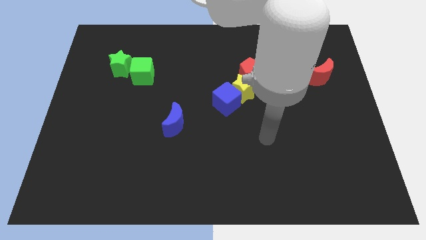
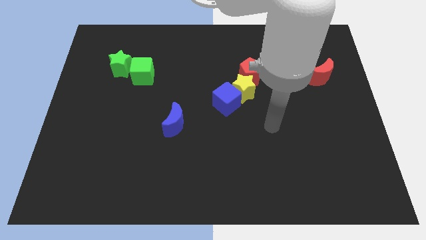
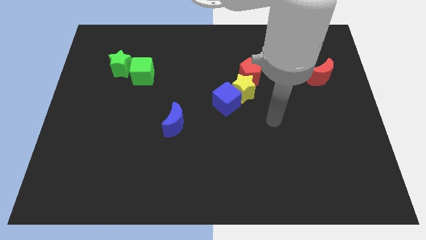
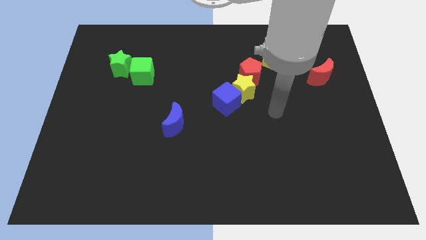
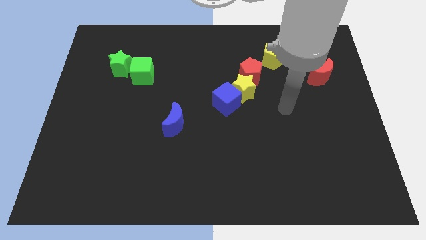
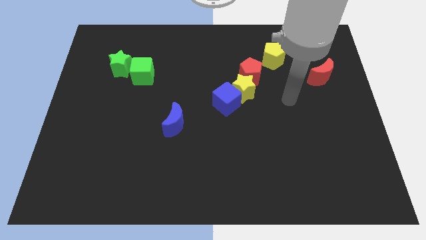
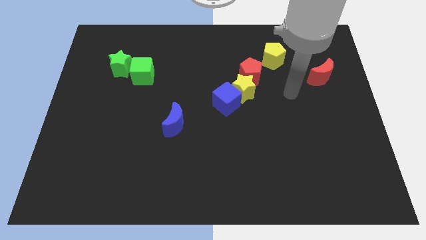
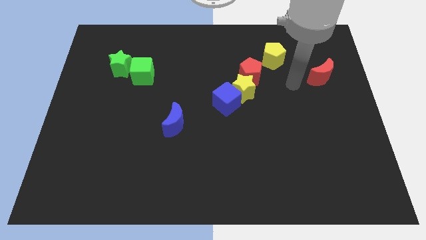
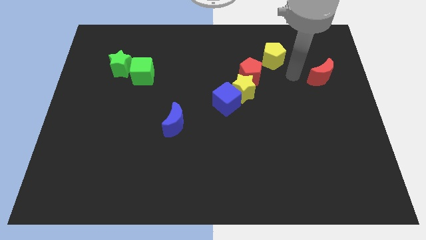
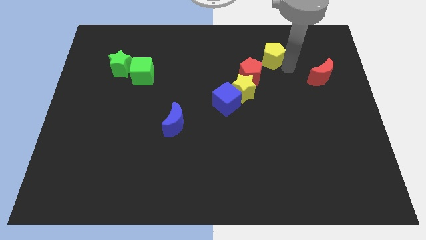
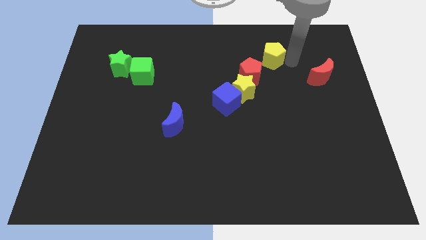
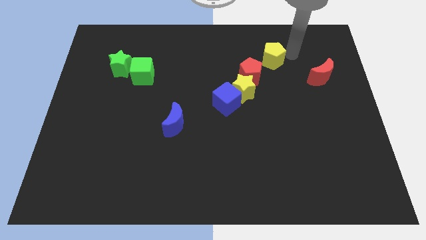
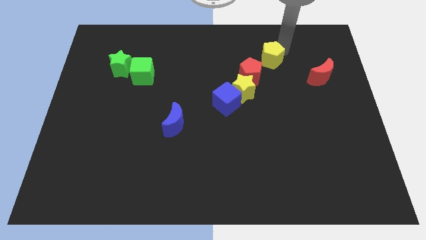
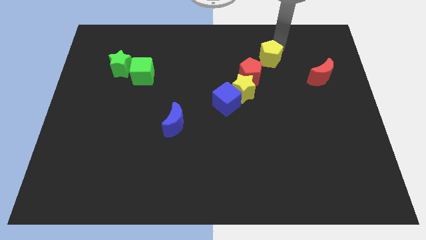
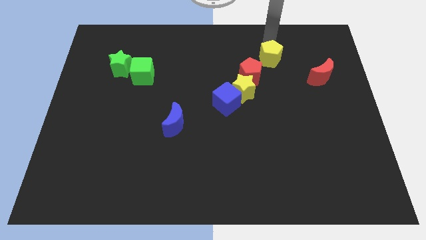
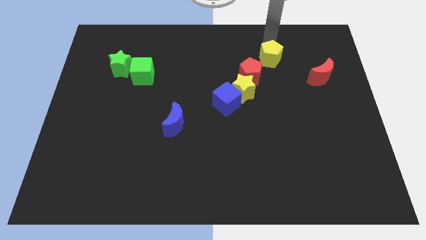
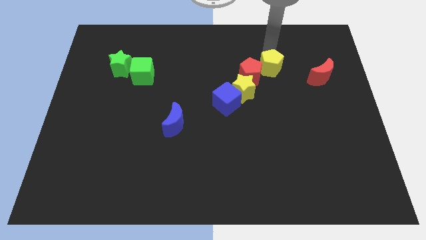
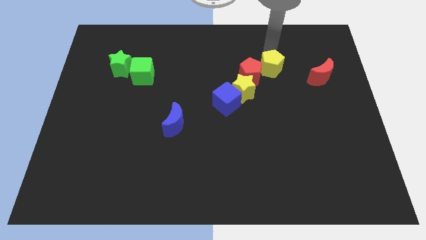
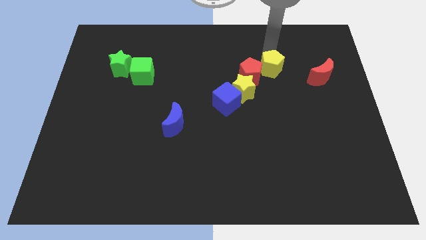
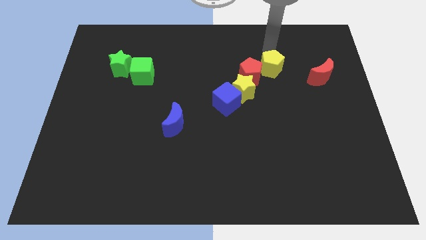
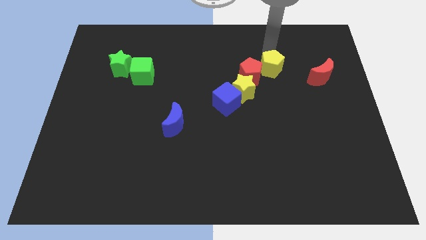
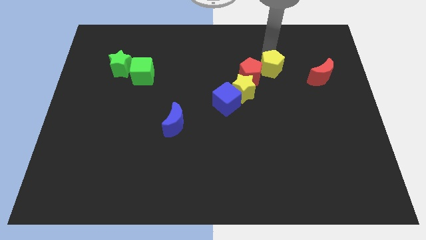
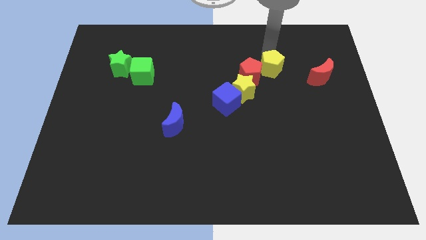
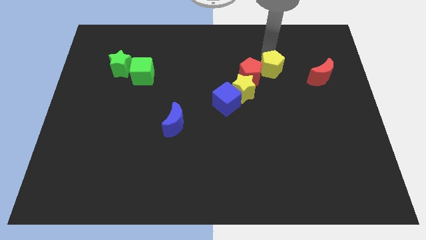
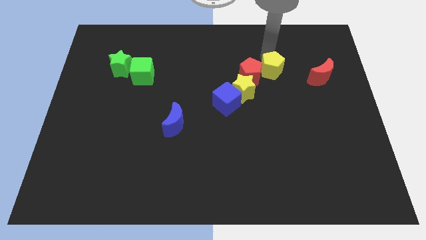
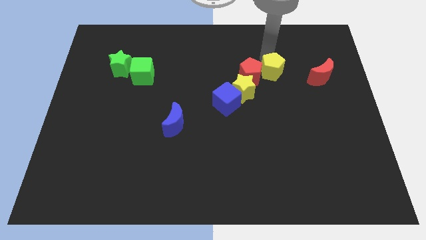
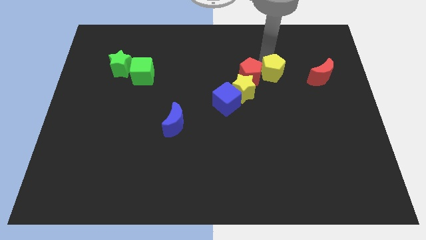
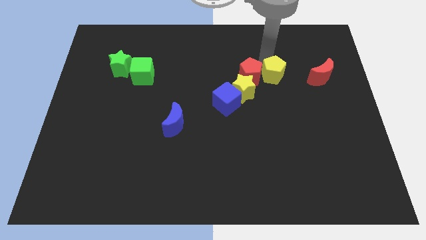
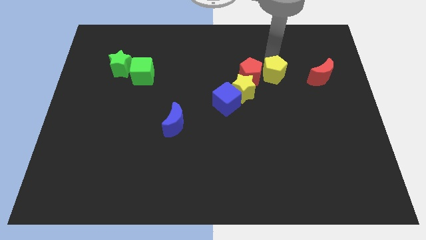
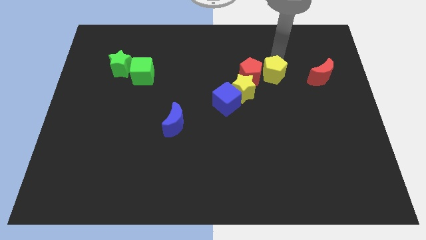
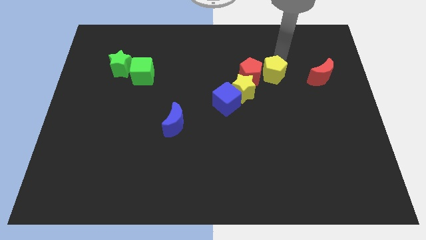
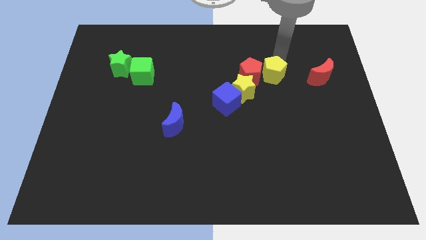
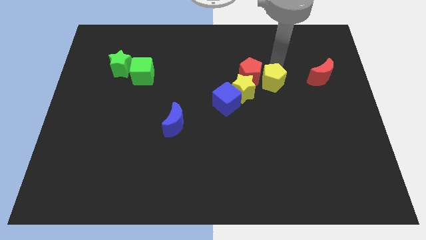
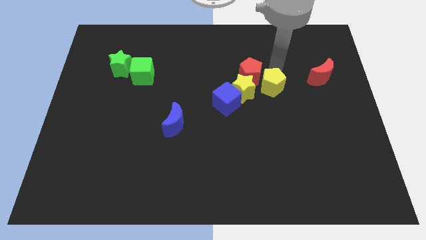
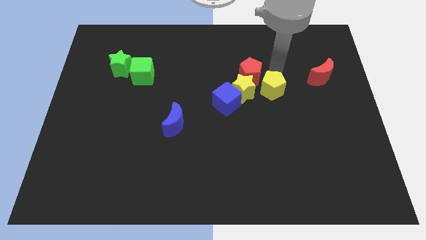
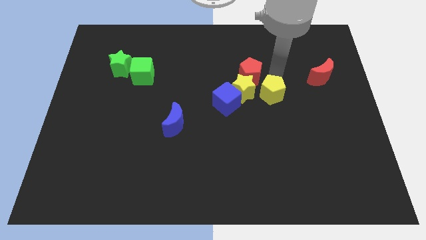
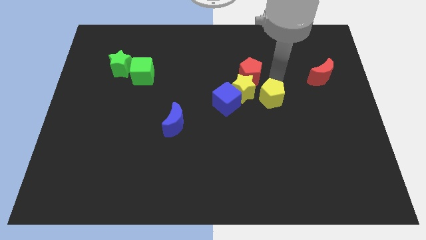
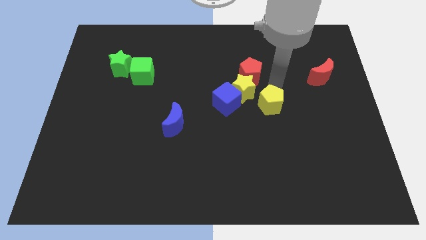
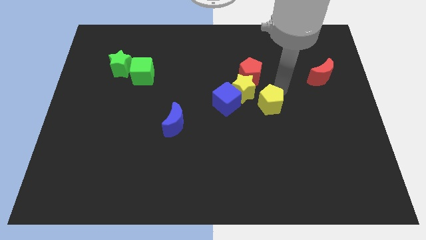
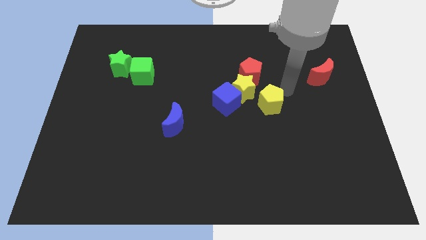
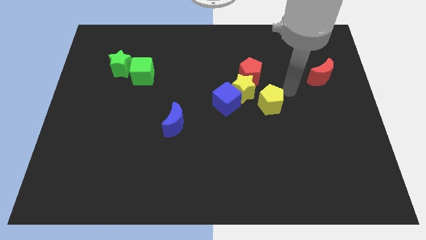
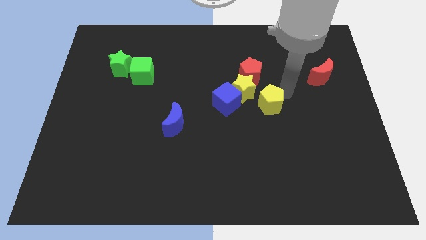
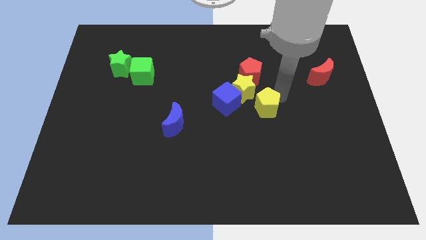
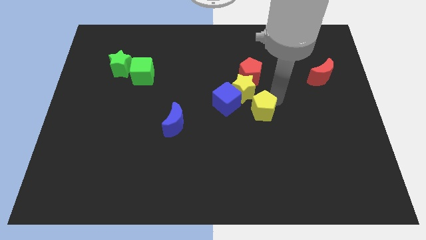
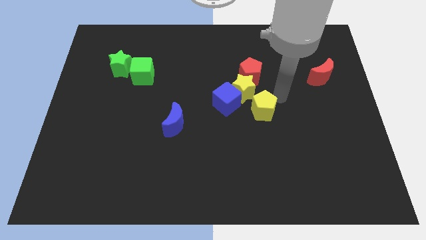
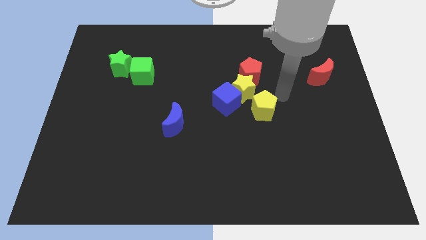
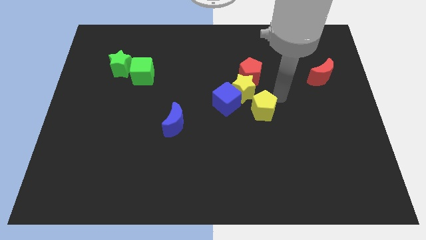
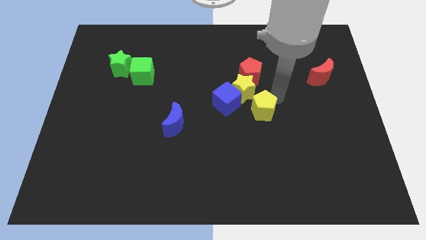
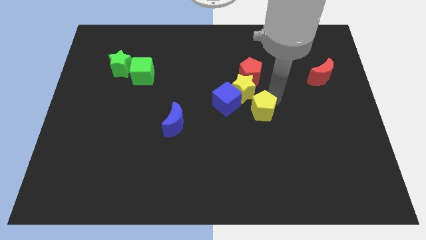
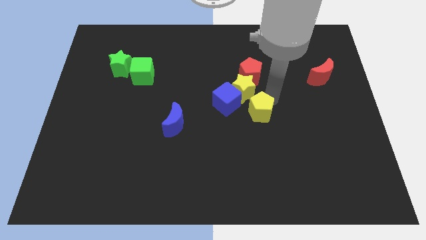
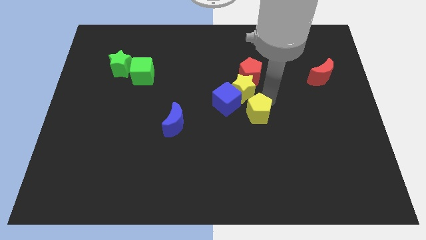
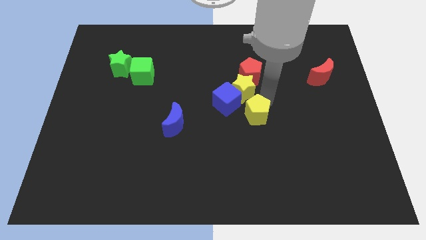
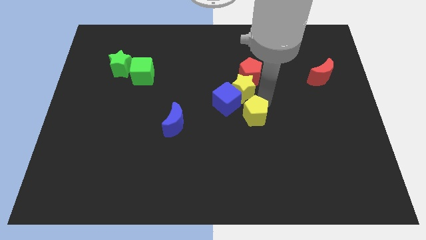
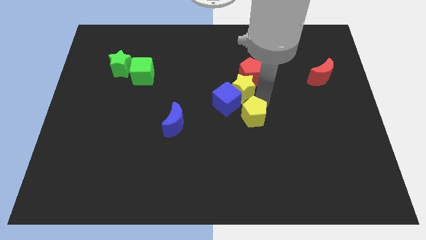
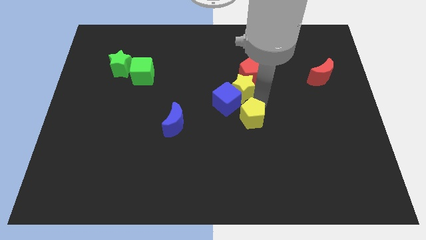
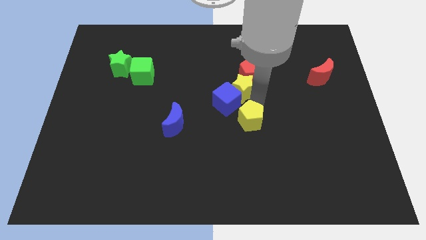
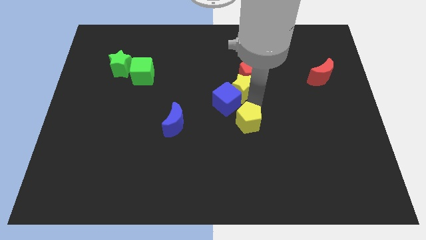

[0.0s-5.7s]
move the yellow pentagon below the blue cube

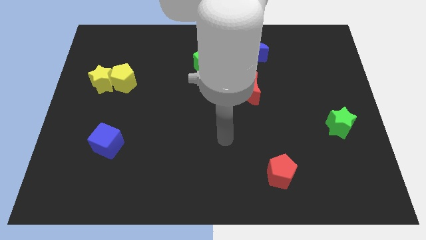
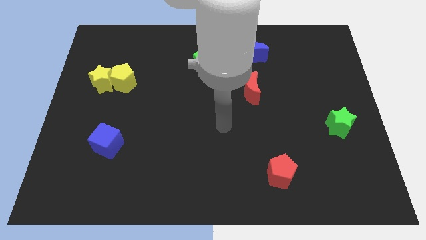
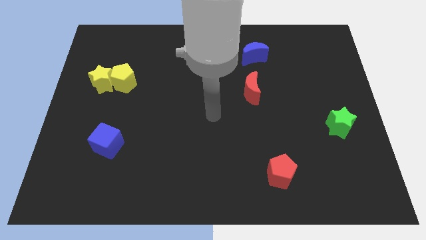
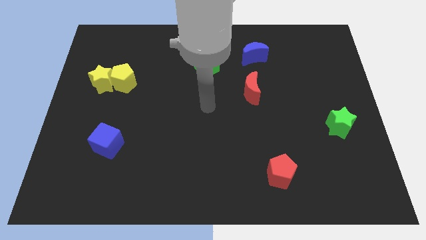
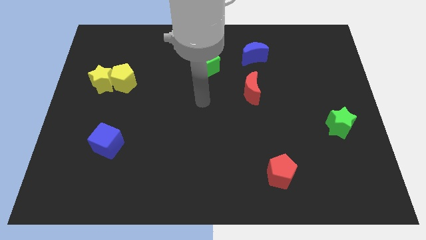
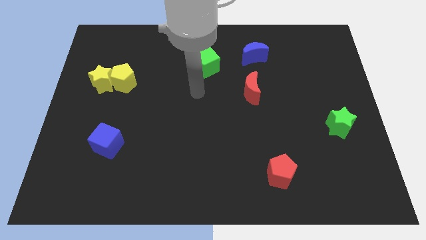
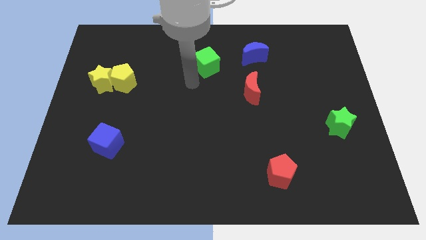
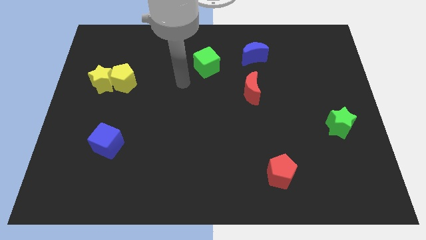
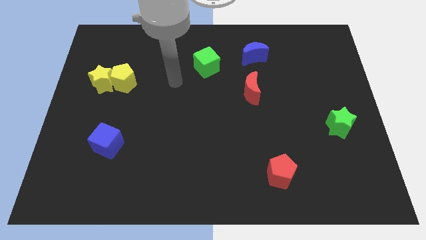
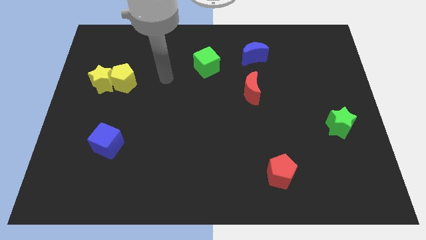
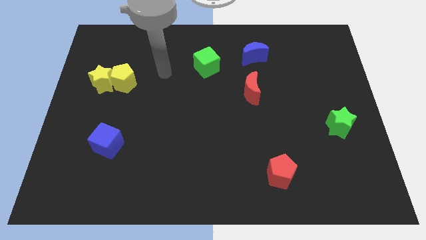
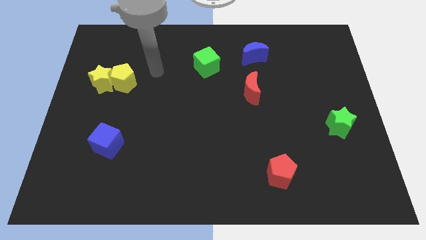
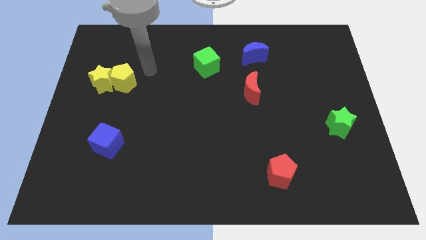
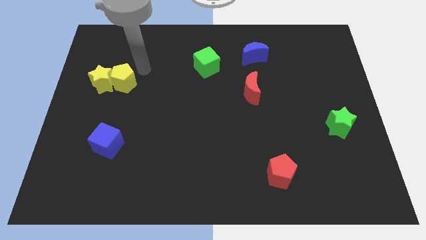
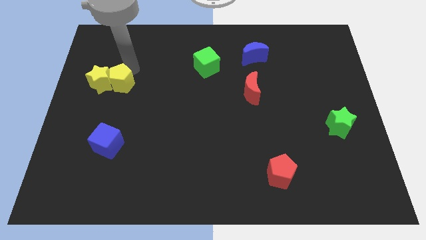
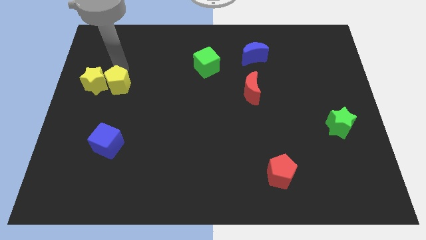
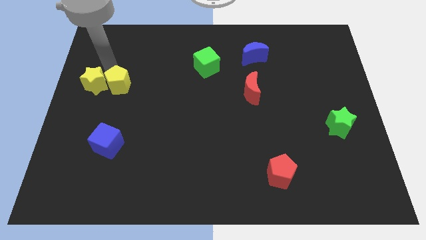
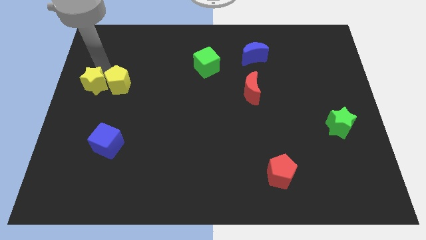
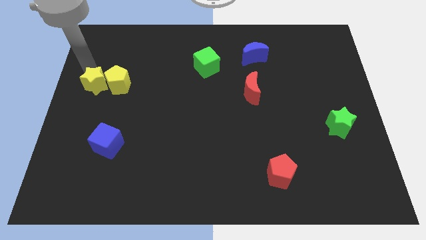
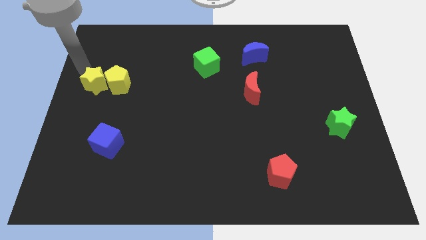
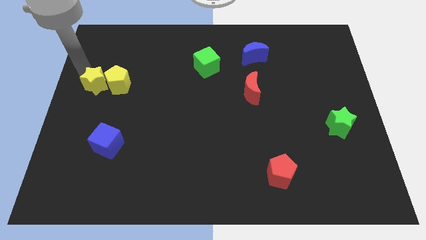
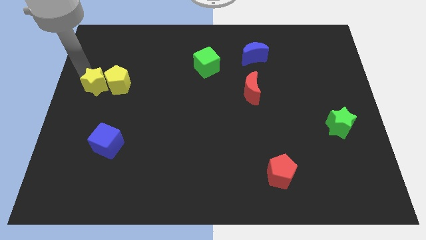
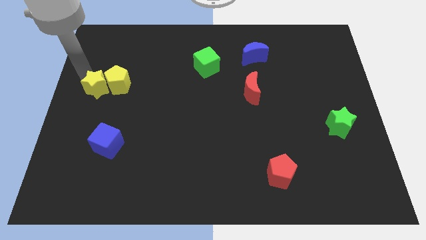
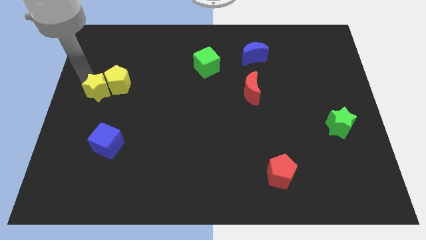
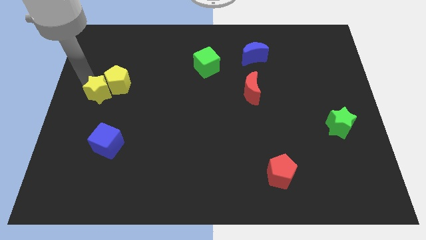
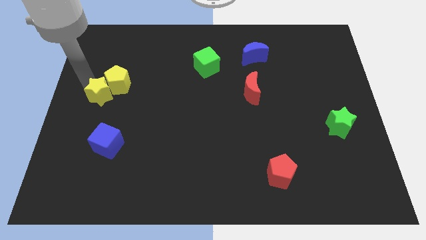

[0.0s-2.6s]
put the yellow star above the blue cube
